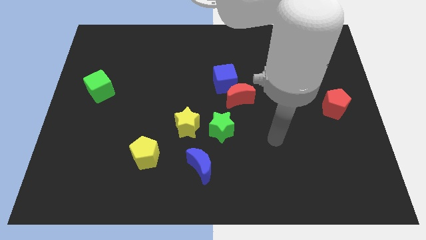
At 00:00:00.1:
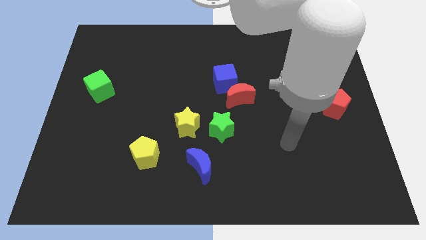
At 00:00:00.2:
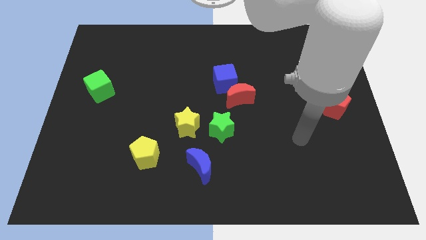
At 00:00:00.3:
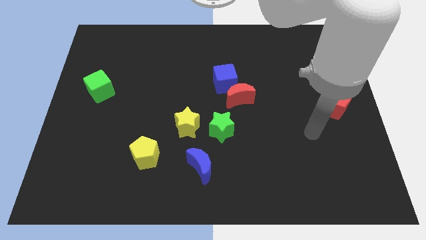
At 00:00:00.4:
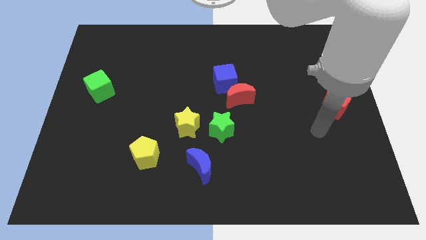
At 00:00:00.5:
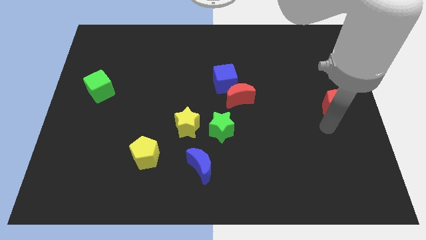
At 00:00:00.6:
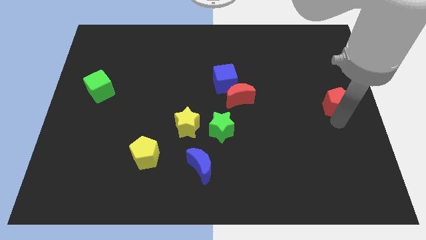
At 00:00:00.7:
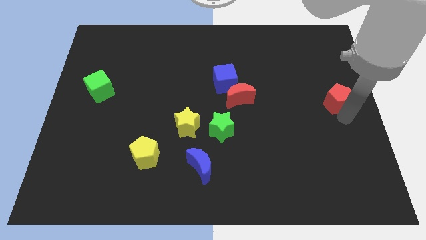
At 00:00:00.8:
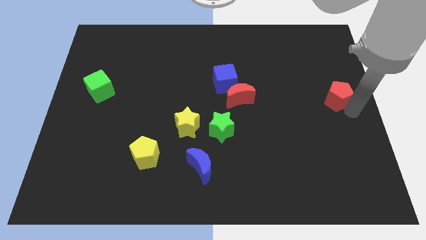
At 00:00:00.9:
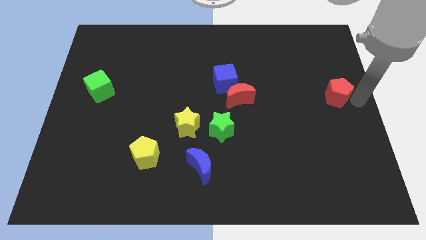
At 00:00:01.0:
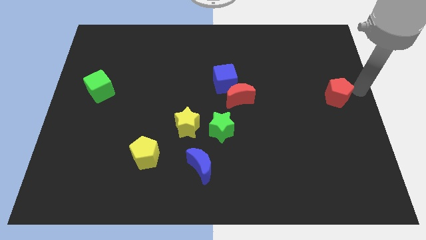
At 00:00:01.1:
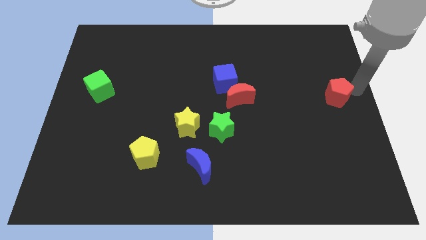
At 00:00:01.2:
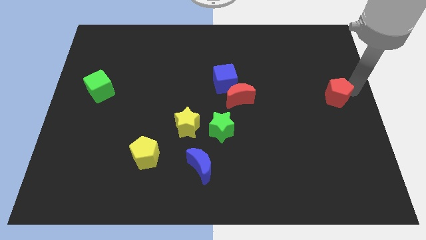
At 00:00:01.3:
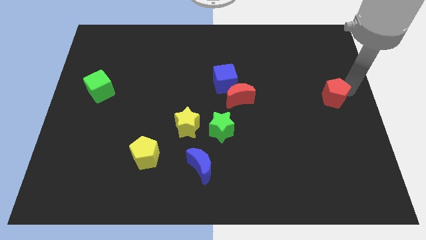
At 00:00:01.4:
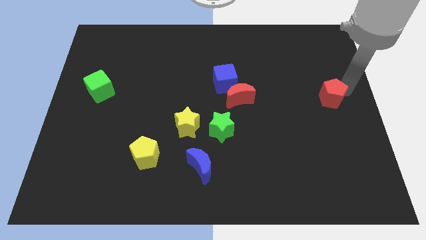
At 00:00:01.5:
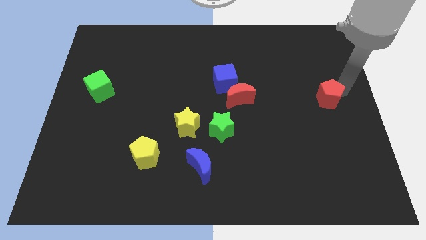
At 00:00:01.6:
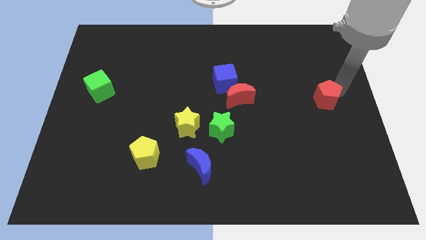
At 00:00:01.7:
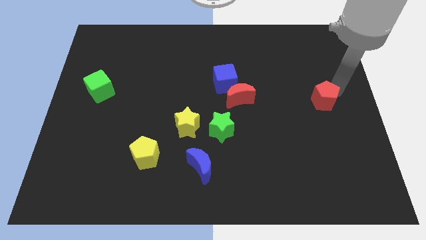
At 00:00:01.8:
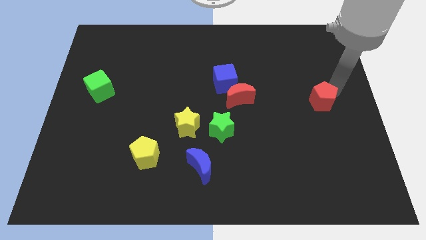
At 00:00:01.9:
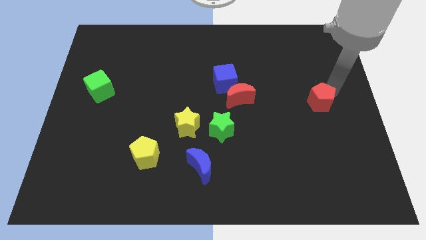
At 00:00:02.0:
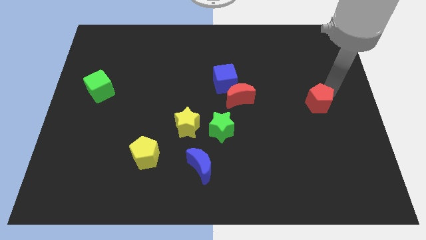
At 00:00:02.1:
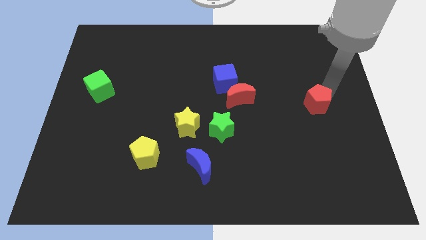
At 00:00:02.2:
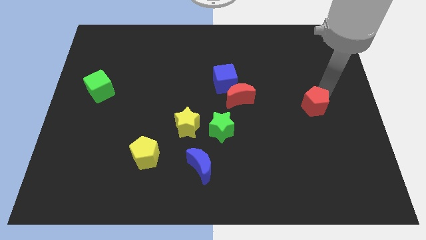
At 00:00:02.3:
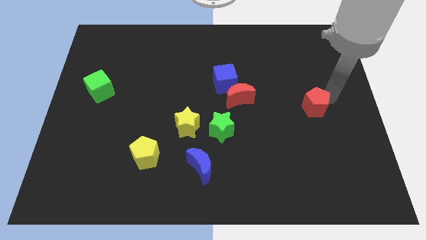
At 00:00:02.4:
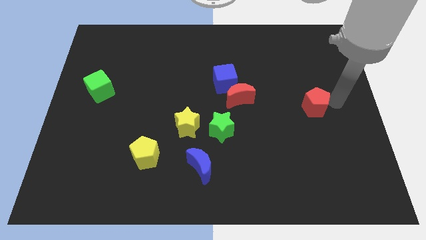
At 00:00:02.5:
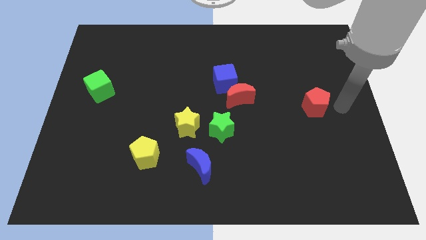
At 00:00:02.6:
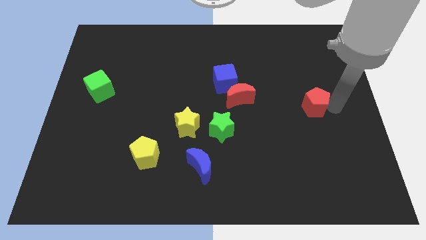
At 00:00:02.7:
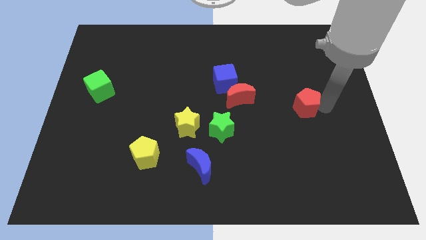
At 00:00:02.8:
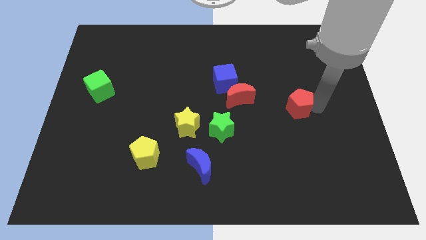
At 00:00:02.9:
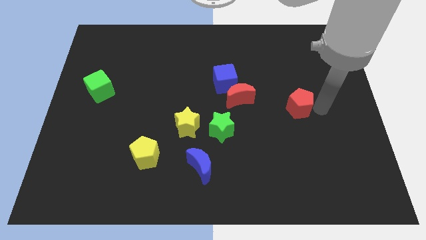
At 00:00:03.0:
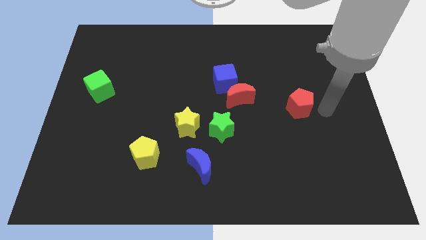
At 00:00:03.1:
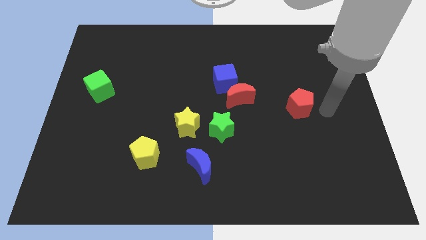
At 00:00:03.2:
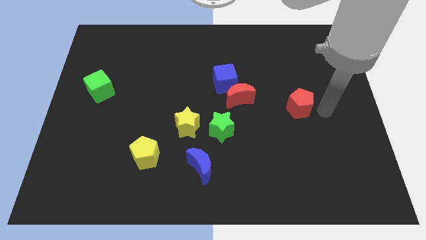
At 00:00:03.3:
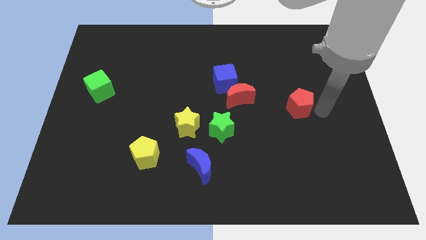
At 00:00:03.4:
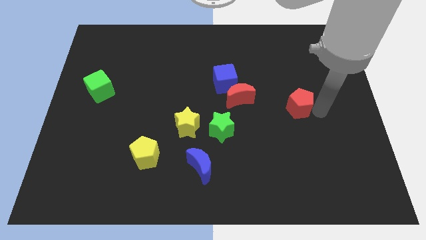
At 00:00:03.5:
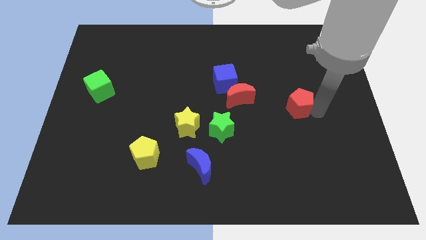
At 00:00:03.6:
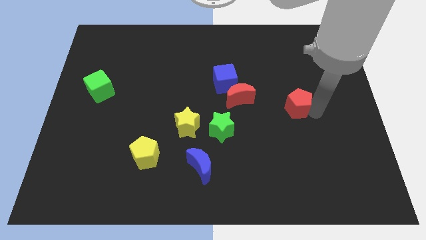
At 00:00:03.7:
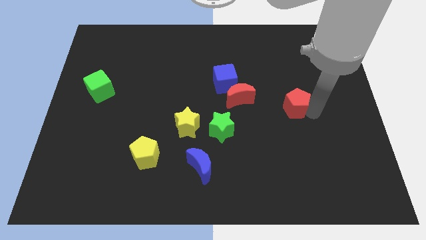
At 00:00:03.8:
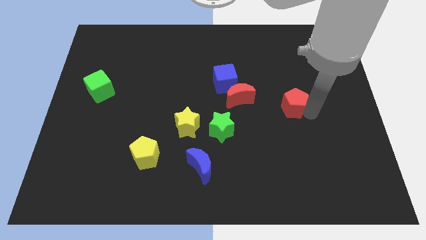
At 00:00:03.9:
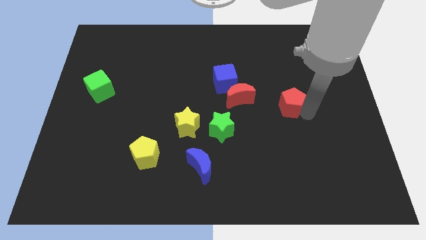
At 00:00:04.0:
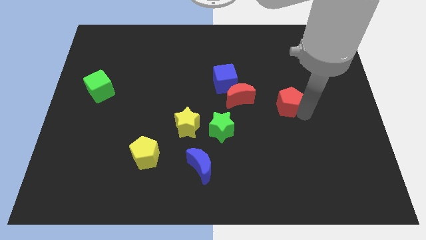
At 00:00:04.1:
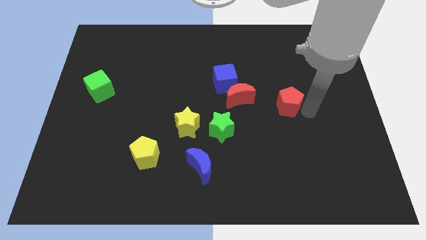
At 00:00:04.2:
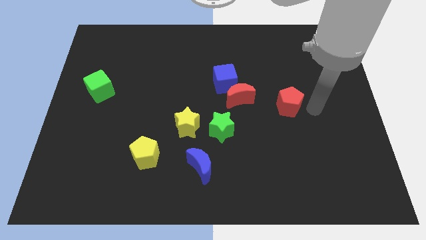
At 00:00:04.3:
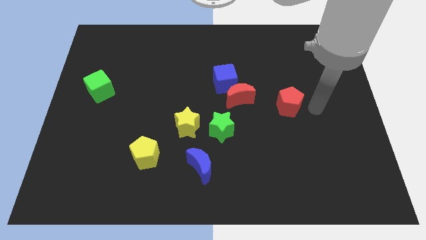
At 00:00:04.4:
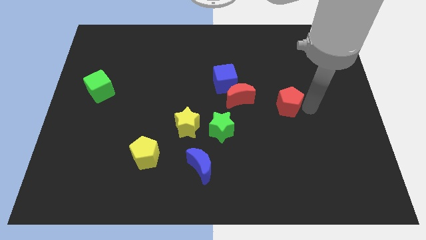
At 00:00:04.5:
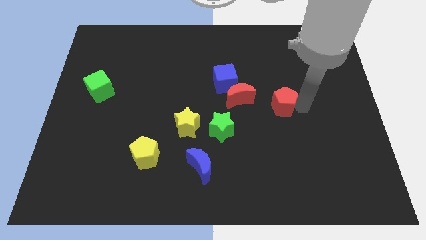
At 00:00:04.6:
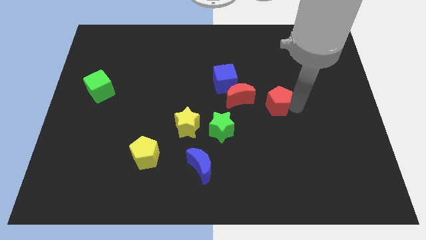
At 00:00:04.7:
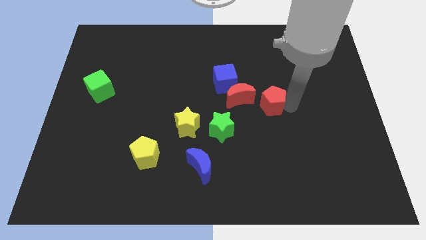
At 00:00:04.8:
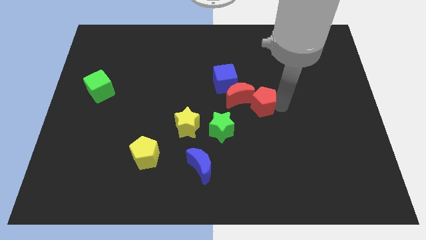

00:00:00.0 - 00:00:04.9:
put the red pentagon towards the red moon

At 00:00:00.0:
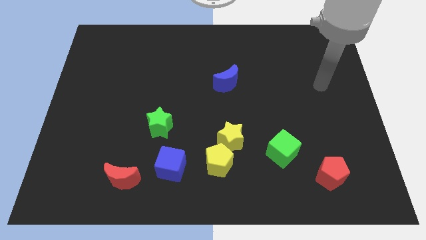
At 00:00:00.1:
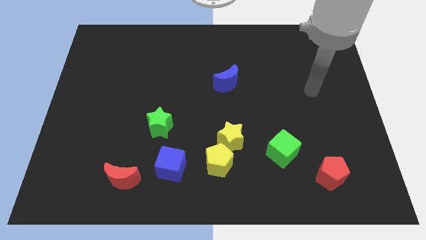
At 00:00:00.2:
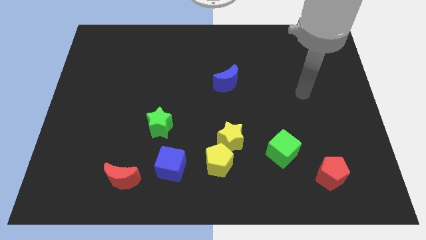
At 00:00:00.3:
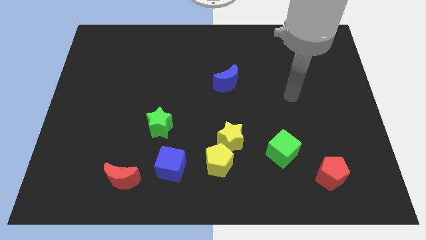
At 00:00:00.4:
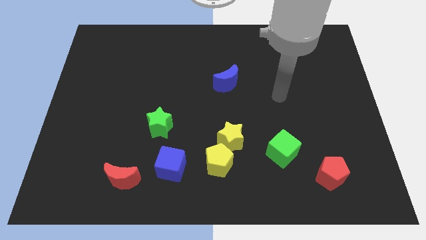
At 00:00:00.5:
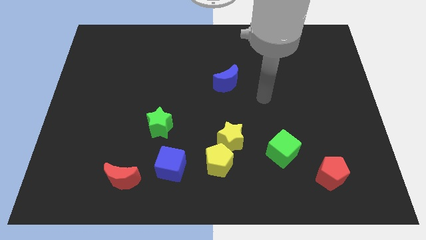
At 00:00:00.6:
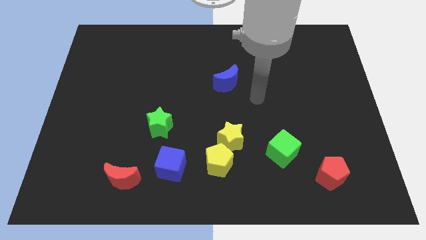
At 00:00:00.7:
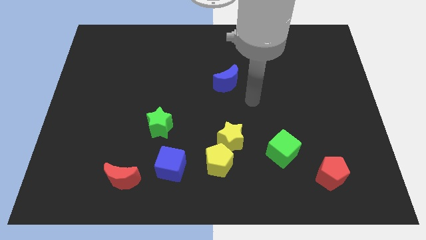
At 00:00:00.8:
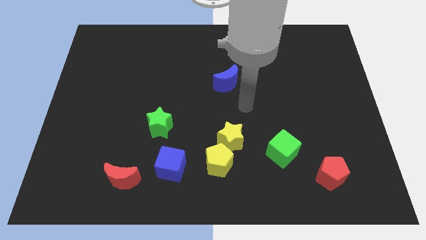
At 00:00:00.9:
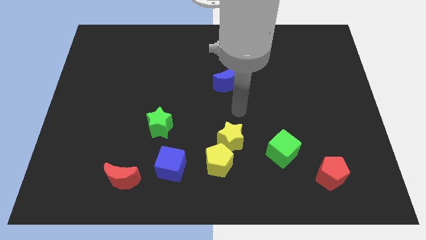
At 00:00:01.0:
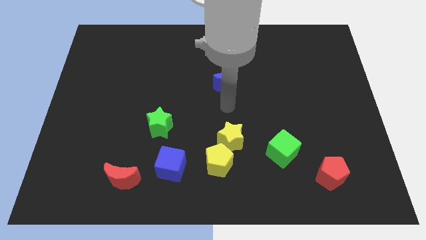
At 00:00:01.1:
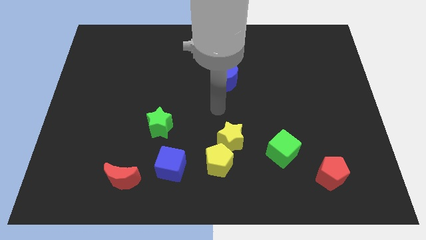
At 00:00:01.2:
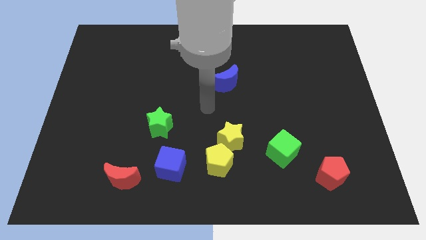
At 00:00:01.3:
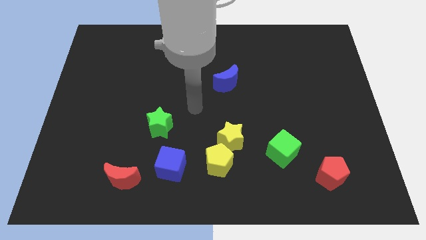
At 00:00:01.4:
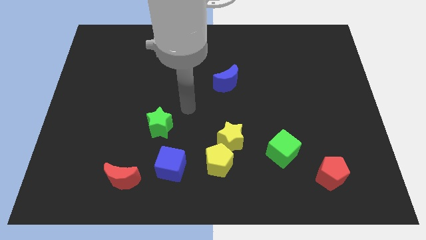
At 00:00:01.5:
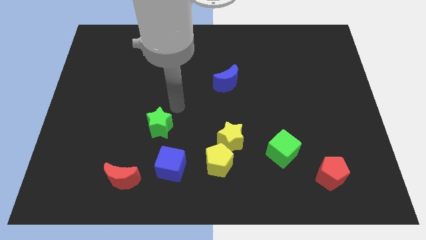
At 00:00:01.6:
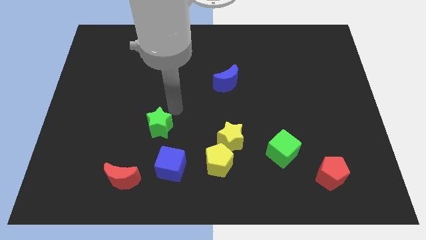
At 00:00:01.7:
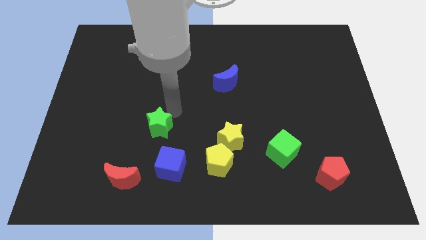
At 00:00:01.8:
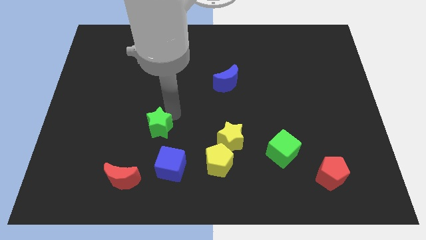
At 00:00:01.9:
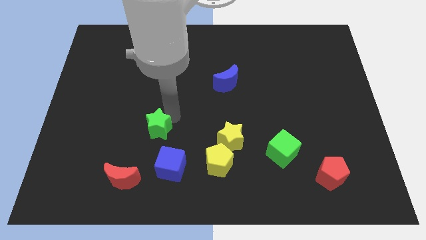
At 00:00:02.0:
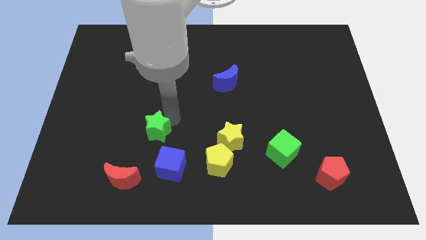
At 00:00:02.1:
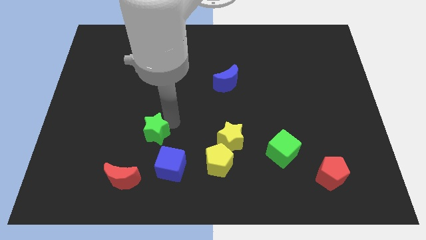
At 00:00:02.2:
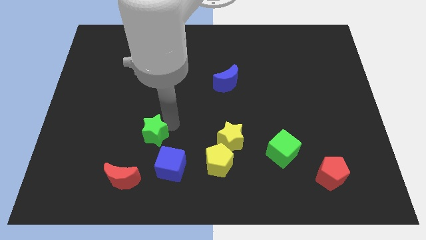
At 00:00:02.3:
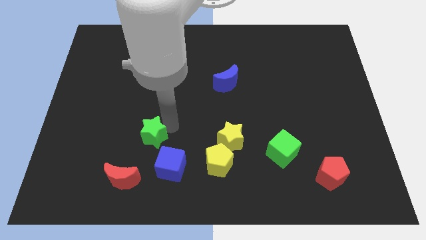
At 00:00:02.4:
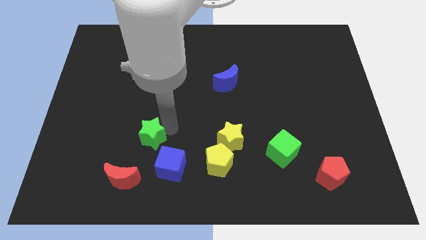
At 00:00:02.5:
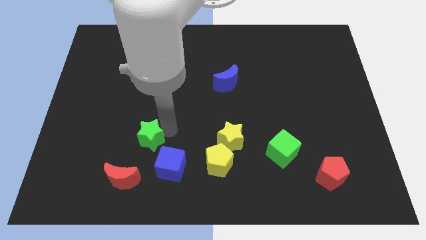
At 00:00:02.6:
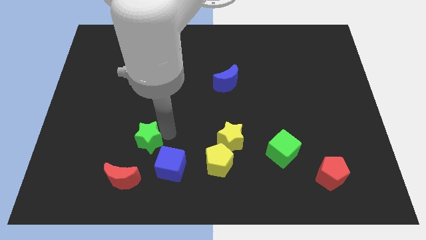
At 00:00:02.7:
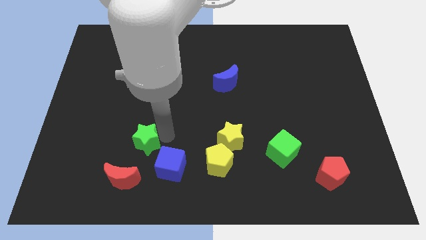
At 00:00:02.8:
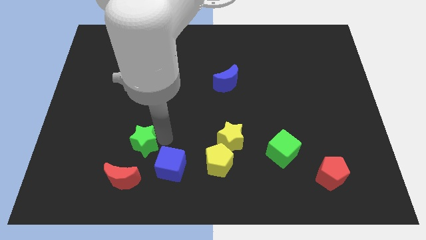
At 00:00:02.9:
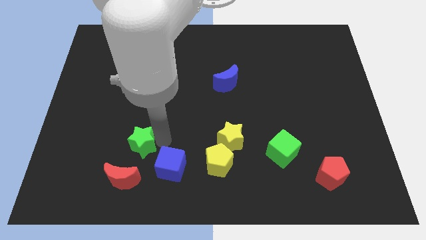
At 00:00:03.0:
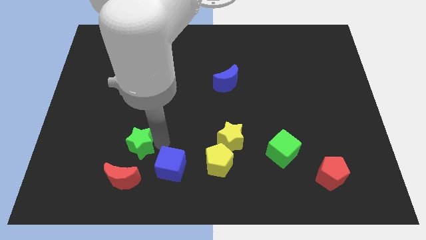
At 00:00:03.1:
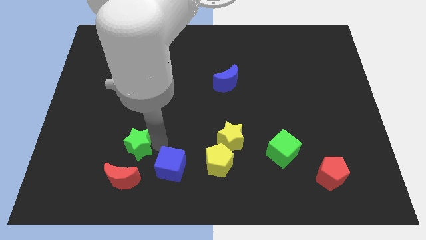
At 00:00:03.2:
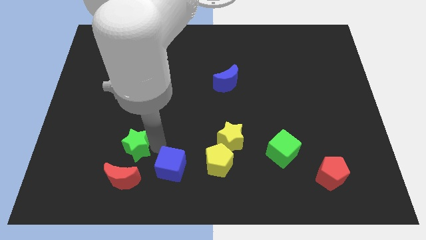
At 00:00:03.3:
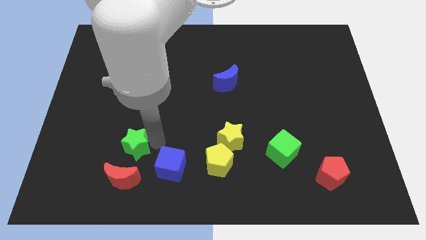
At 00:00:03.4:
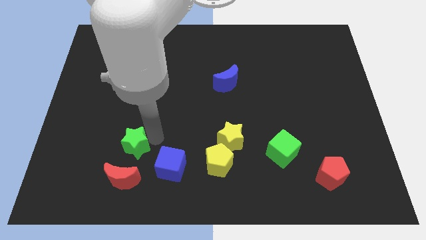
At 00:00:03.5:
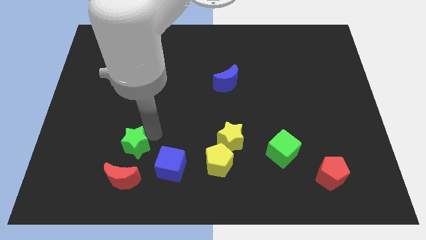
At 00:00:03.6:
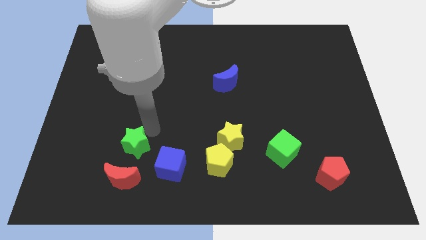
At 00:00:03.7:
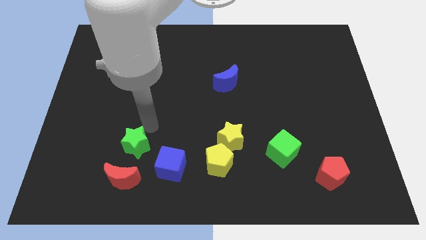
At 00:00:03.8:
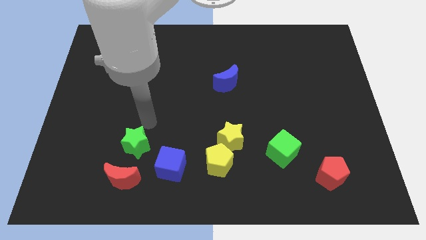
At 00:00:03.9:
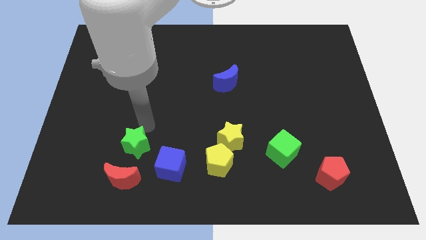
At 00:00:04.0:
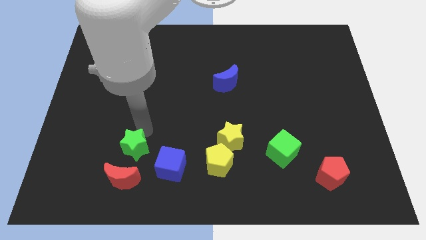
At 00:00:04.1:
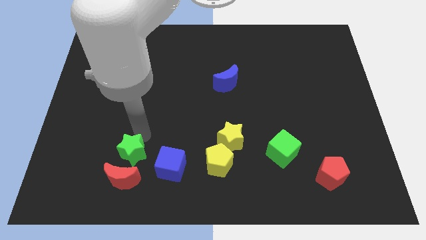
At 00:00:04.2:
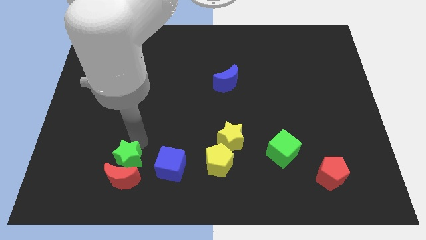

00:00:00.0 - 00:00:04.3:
slide the green star next to the red moon
